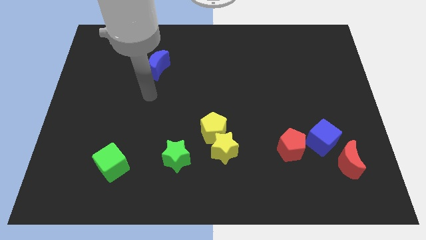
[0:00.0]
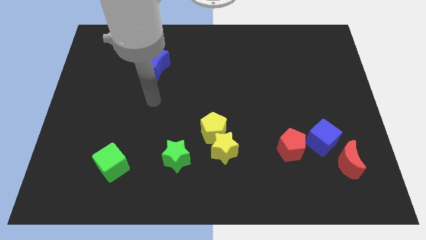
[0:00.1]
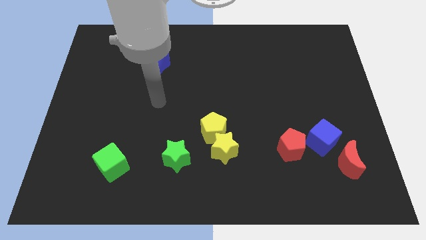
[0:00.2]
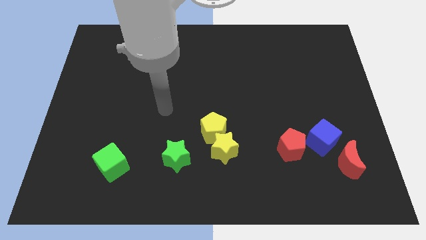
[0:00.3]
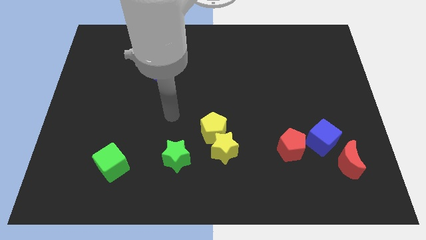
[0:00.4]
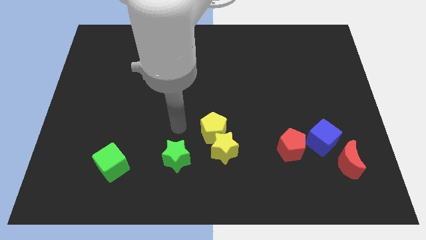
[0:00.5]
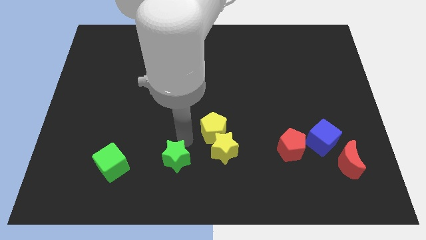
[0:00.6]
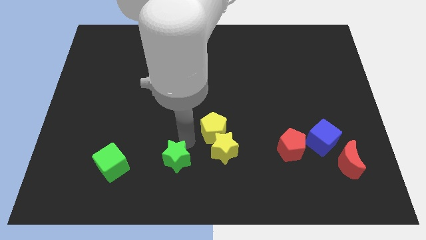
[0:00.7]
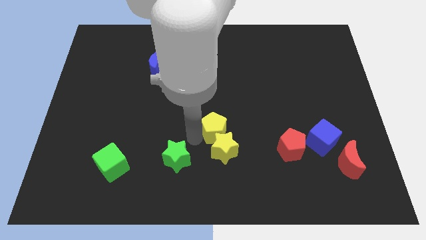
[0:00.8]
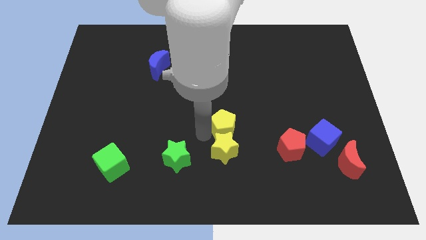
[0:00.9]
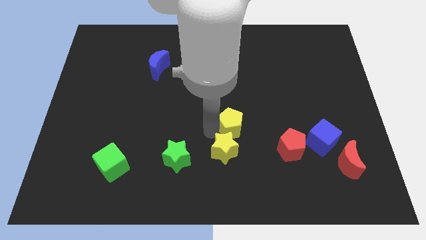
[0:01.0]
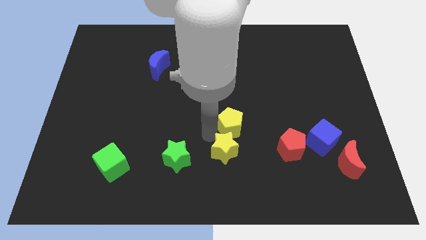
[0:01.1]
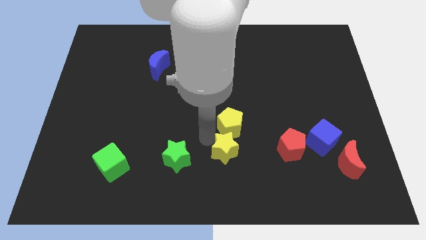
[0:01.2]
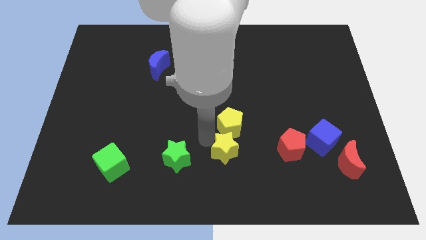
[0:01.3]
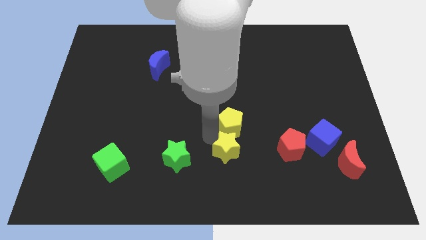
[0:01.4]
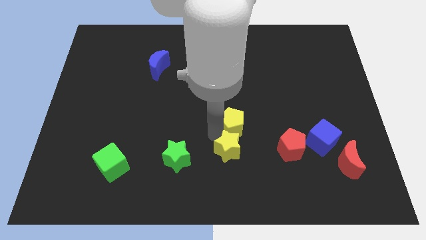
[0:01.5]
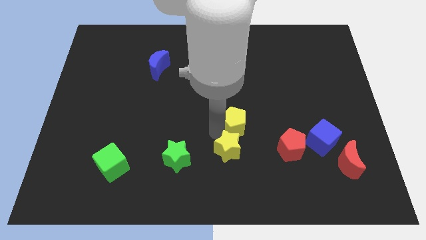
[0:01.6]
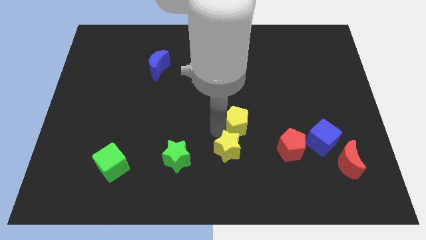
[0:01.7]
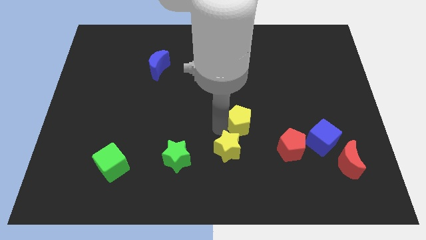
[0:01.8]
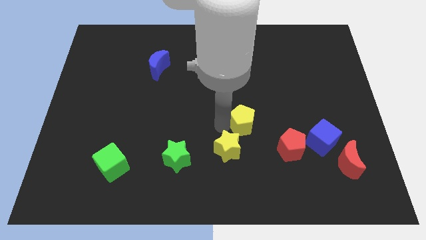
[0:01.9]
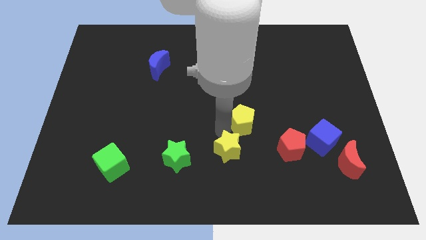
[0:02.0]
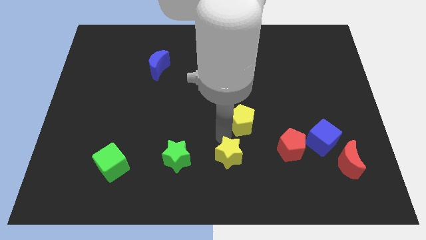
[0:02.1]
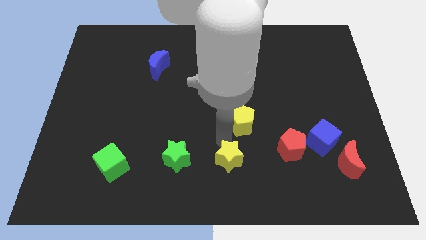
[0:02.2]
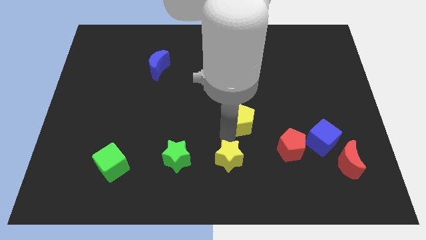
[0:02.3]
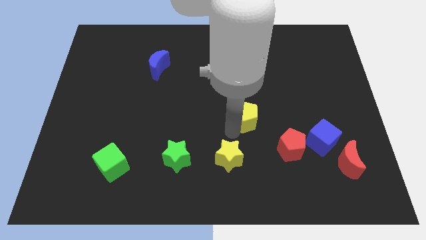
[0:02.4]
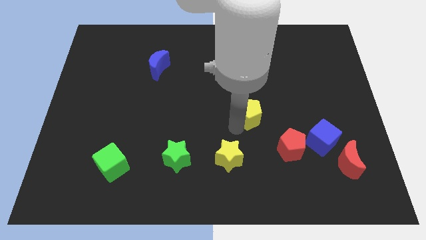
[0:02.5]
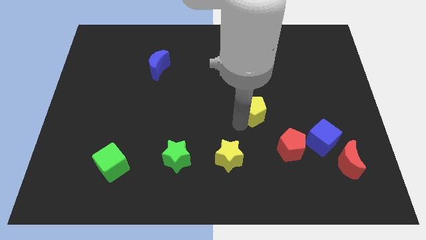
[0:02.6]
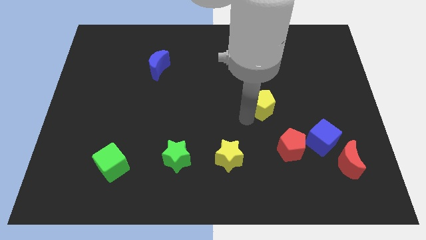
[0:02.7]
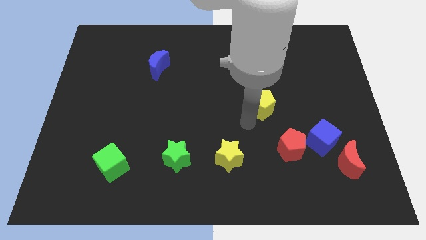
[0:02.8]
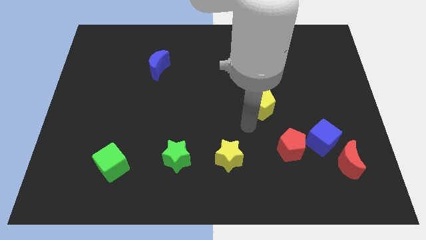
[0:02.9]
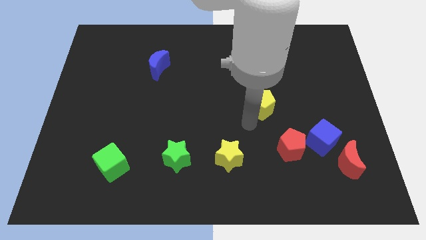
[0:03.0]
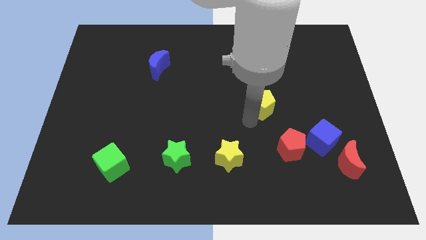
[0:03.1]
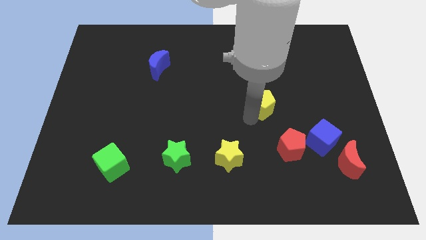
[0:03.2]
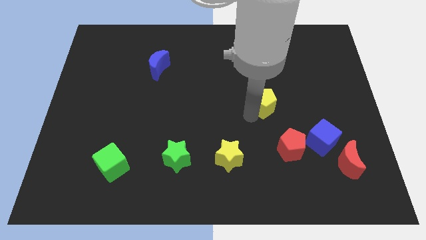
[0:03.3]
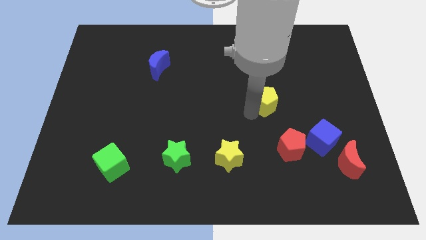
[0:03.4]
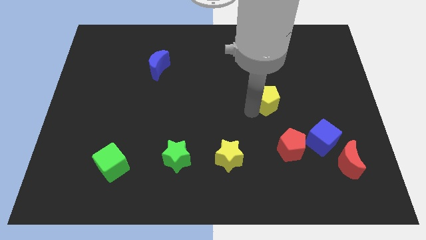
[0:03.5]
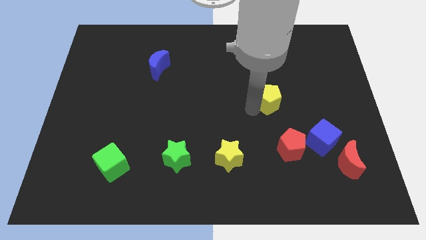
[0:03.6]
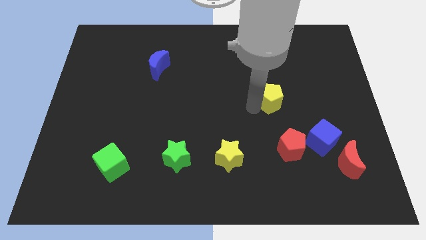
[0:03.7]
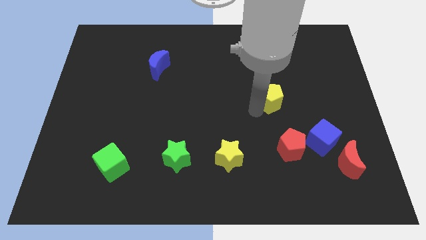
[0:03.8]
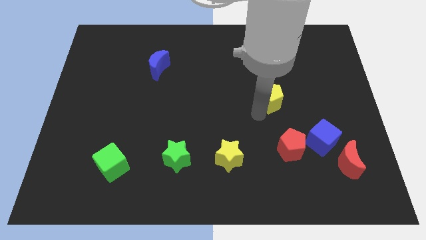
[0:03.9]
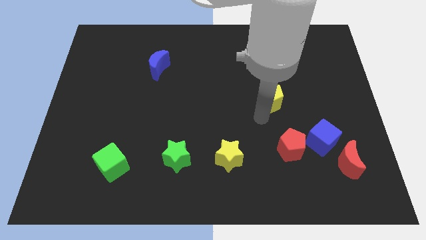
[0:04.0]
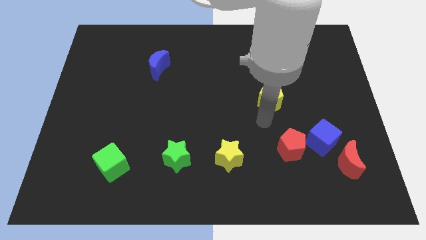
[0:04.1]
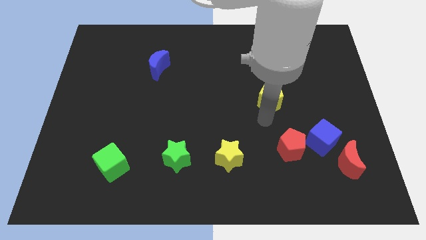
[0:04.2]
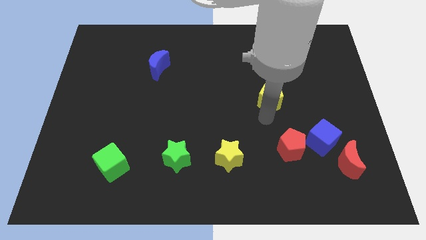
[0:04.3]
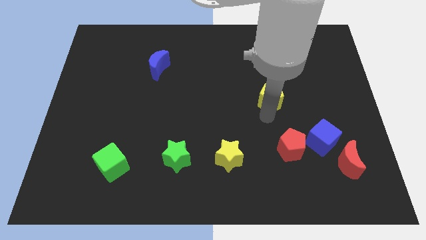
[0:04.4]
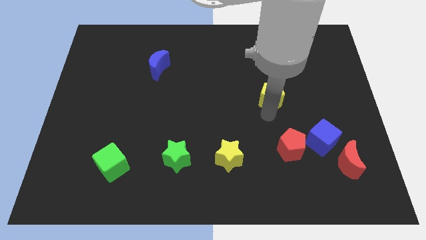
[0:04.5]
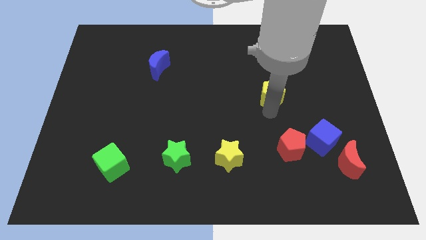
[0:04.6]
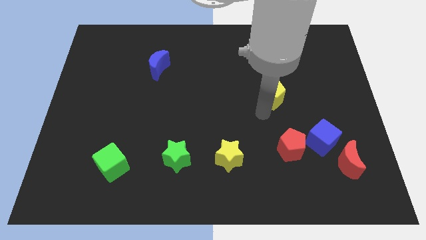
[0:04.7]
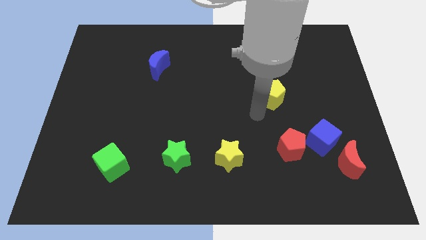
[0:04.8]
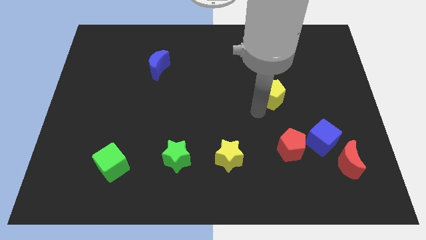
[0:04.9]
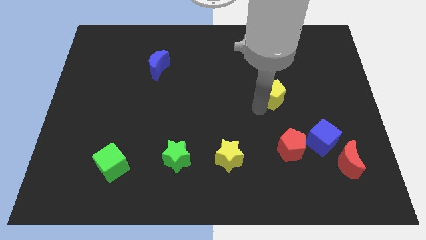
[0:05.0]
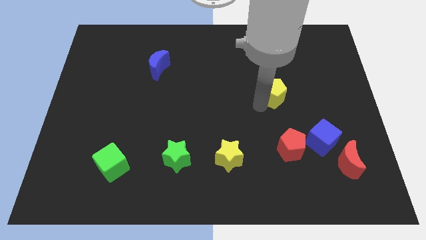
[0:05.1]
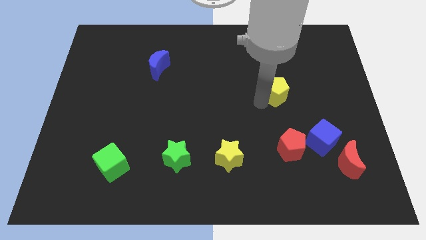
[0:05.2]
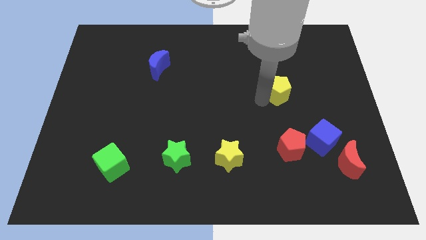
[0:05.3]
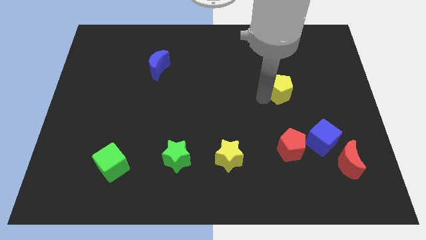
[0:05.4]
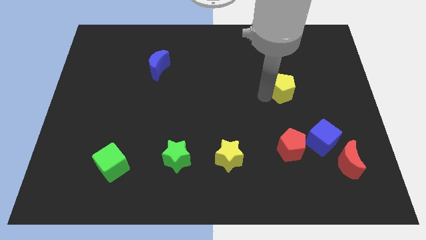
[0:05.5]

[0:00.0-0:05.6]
move the yellow pentagon up and right

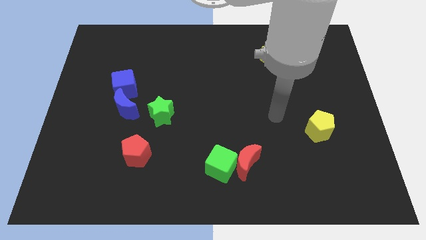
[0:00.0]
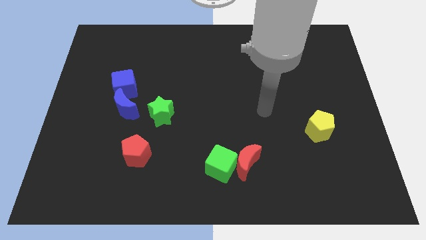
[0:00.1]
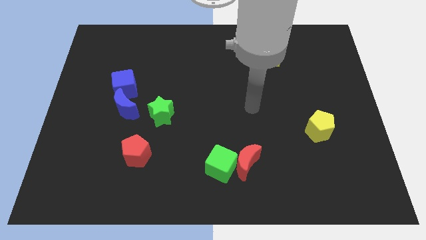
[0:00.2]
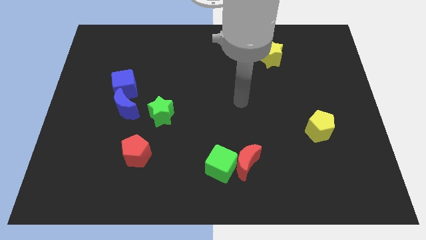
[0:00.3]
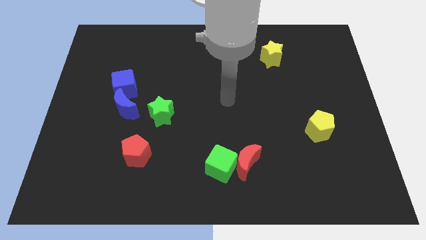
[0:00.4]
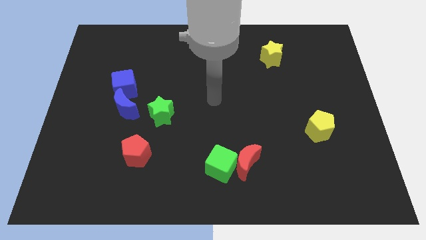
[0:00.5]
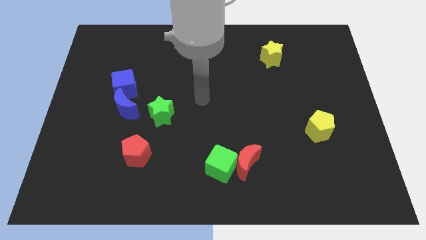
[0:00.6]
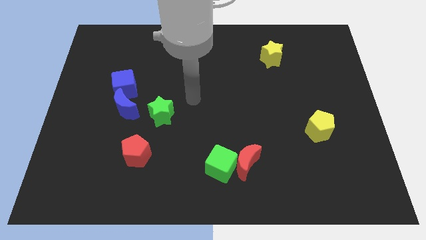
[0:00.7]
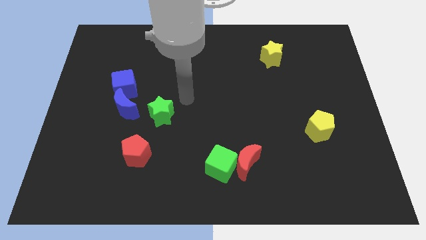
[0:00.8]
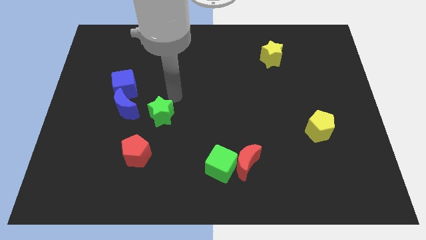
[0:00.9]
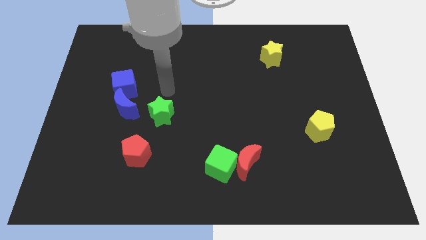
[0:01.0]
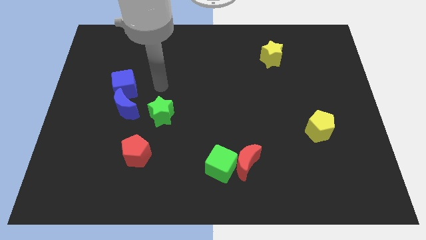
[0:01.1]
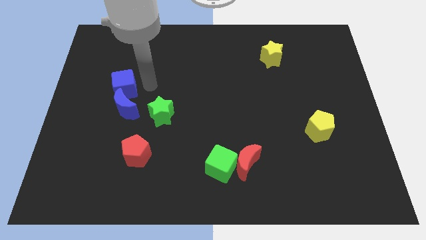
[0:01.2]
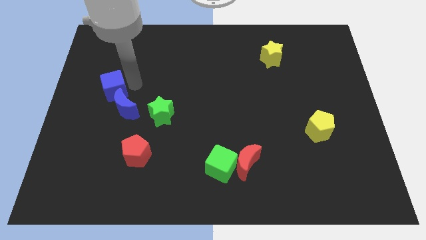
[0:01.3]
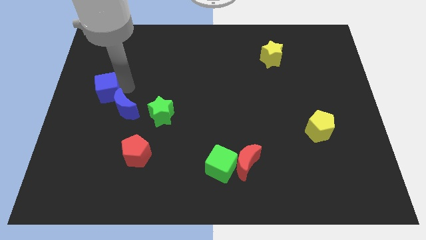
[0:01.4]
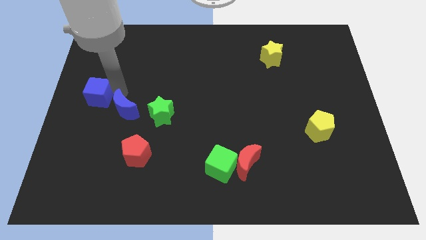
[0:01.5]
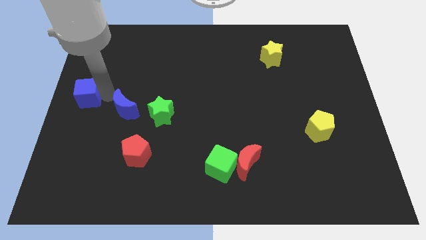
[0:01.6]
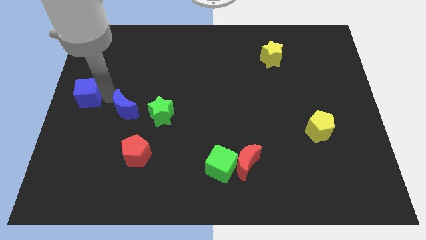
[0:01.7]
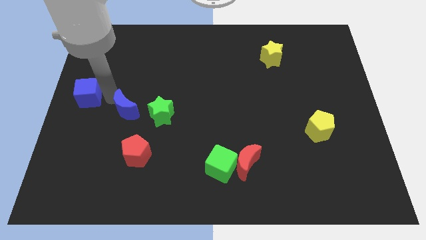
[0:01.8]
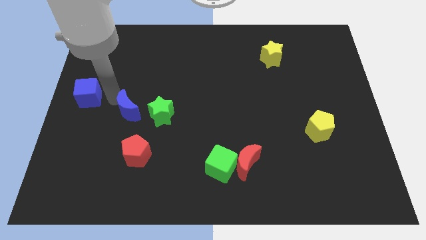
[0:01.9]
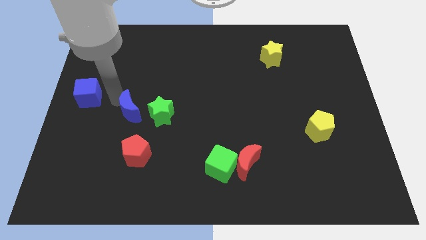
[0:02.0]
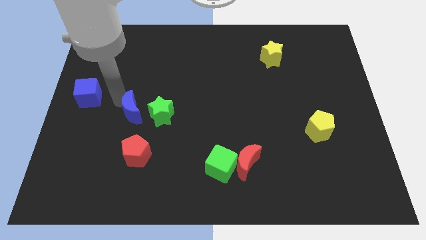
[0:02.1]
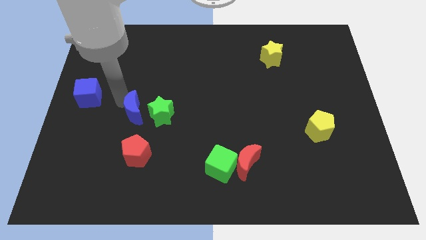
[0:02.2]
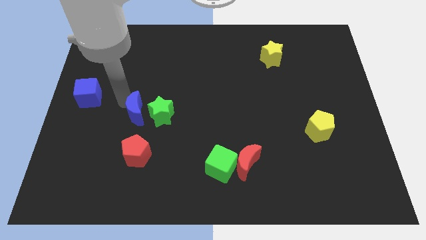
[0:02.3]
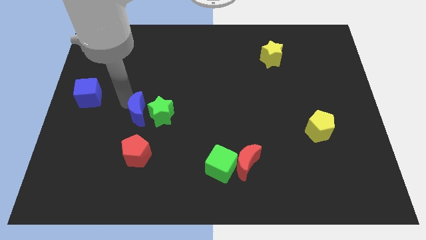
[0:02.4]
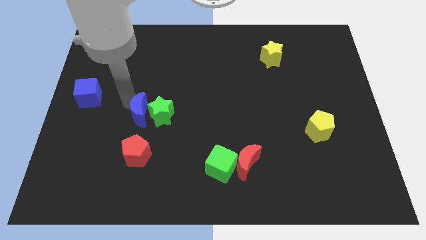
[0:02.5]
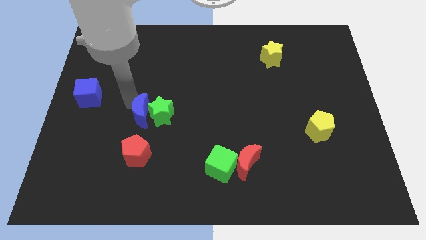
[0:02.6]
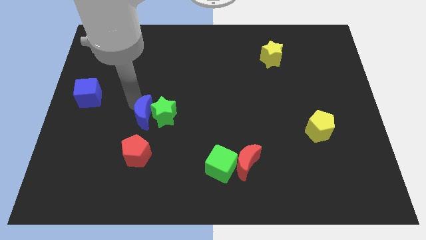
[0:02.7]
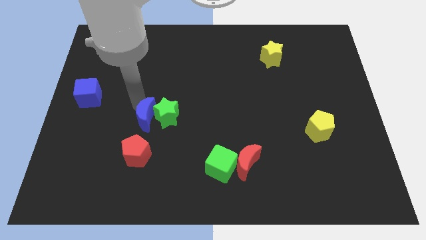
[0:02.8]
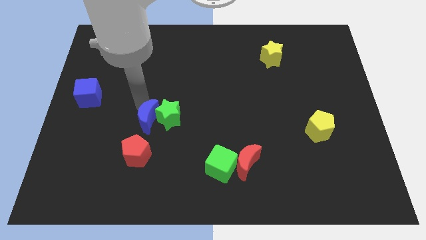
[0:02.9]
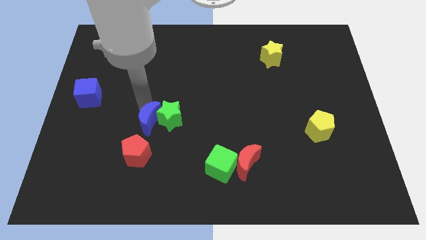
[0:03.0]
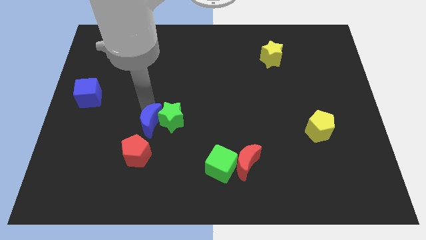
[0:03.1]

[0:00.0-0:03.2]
slightly move the blue moon downwards and then right
